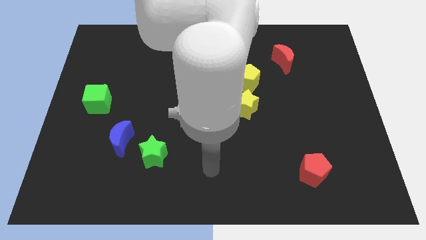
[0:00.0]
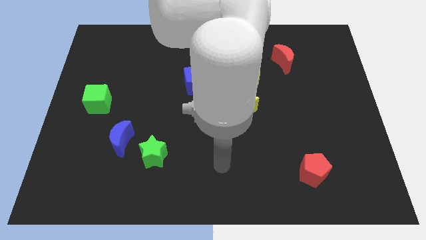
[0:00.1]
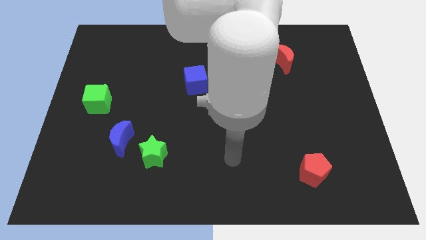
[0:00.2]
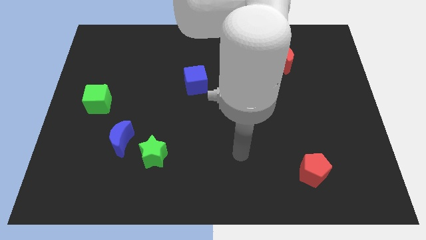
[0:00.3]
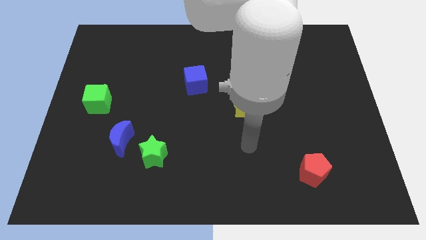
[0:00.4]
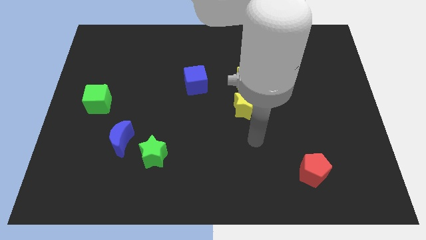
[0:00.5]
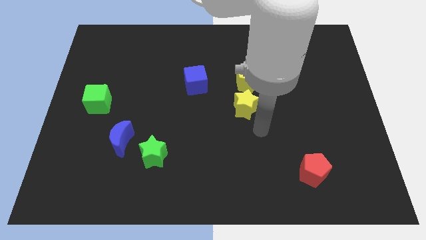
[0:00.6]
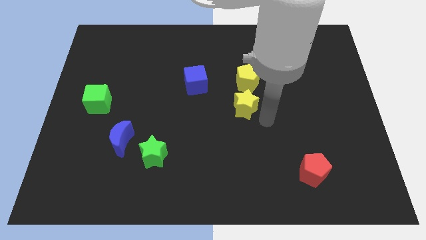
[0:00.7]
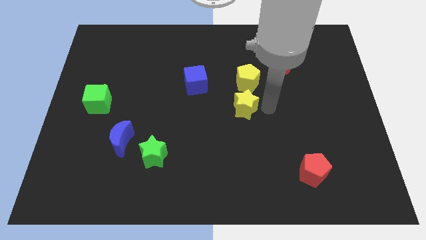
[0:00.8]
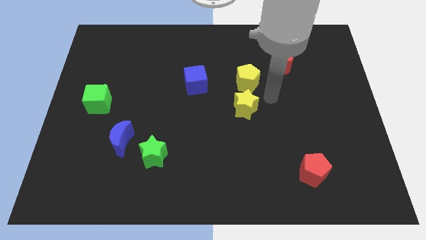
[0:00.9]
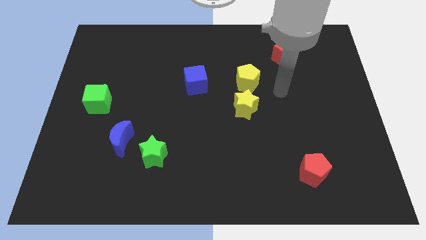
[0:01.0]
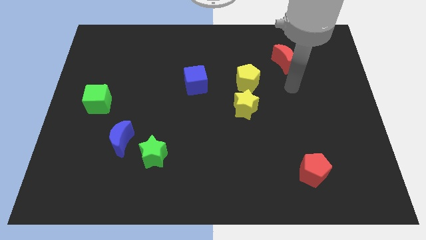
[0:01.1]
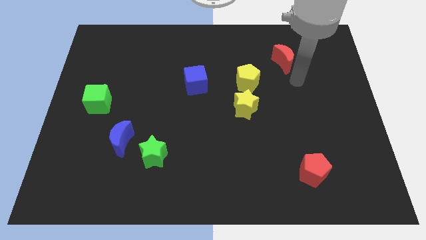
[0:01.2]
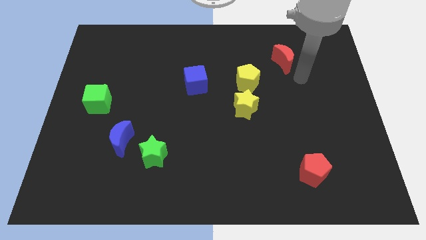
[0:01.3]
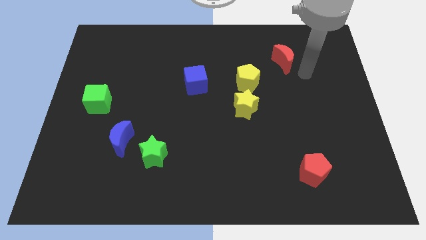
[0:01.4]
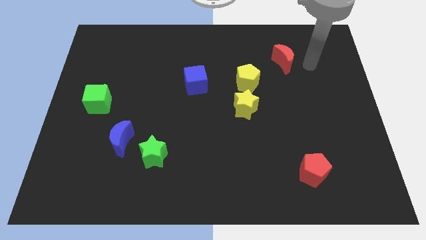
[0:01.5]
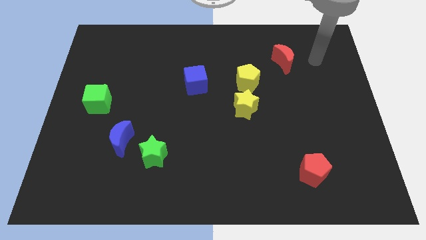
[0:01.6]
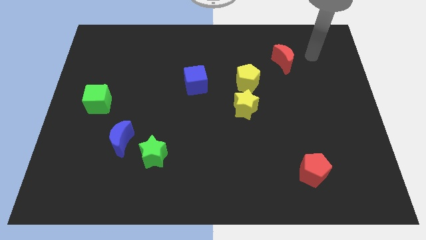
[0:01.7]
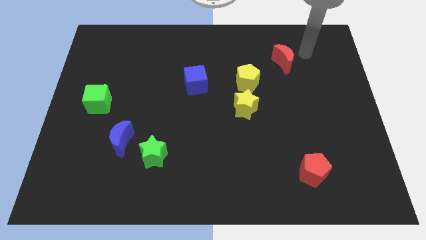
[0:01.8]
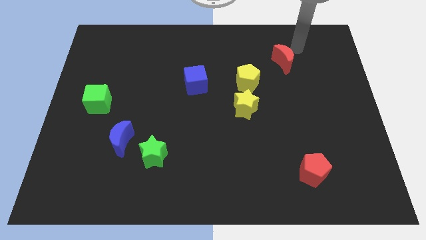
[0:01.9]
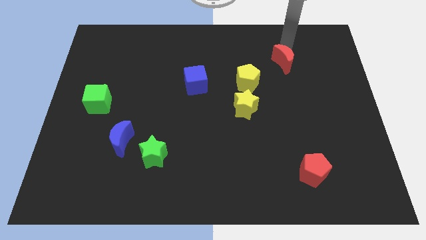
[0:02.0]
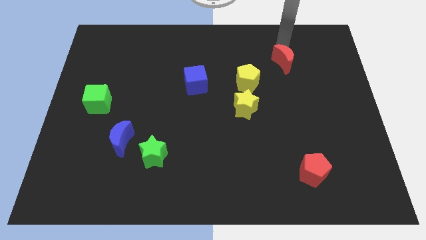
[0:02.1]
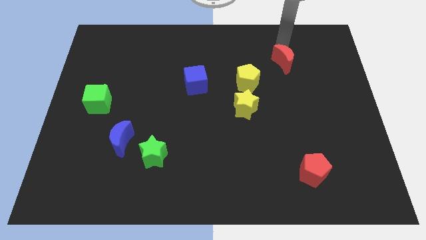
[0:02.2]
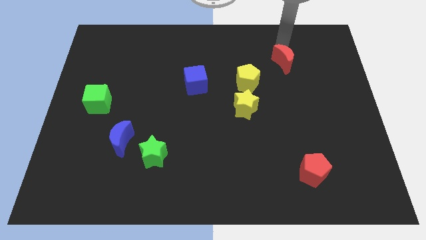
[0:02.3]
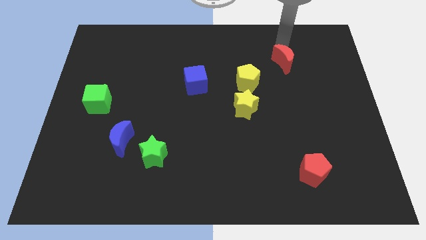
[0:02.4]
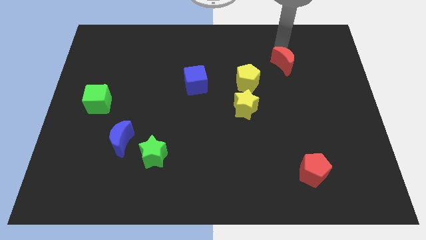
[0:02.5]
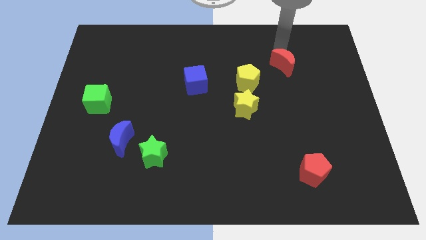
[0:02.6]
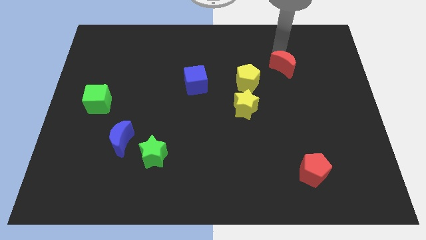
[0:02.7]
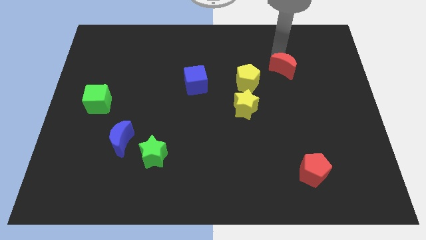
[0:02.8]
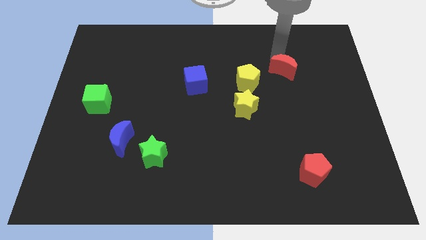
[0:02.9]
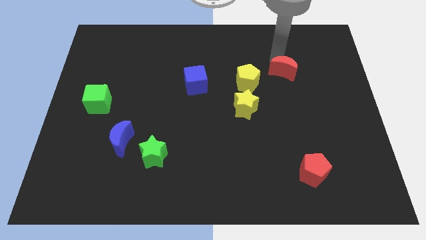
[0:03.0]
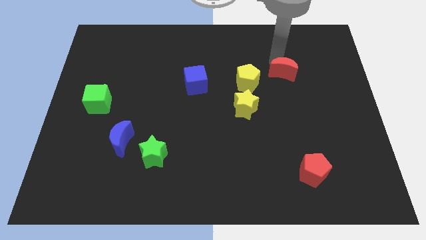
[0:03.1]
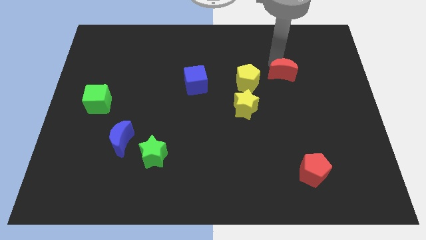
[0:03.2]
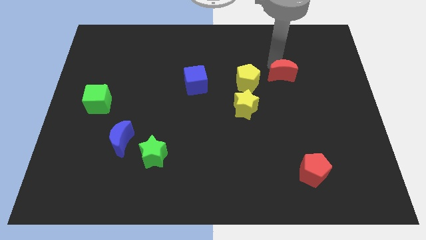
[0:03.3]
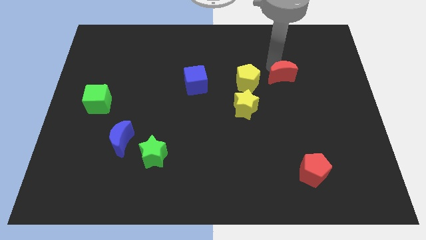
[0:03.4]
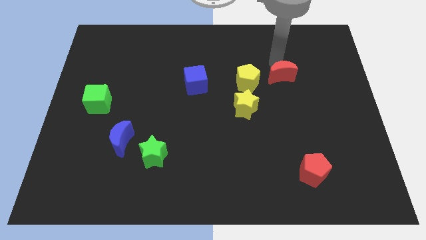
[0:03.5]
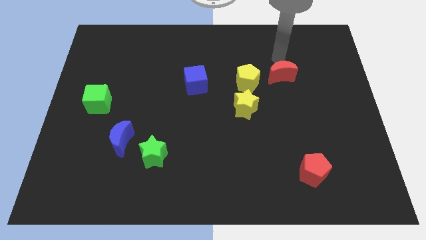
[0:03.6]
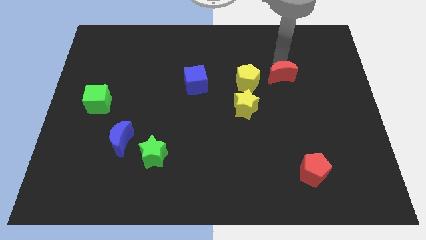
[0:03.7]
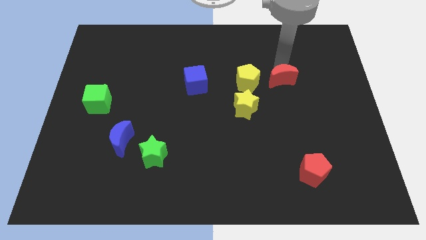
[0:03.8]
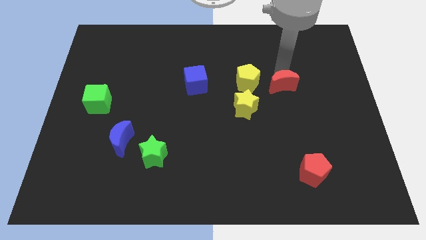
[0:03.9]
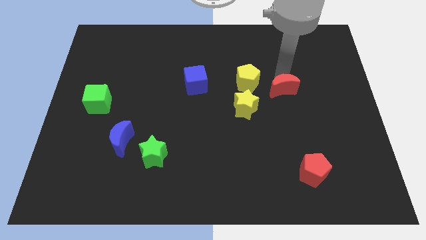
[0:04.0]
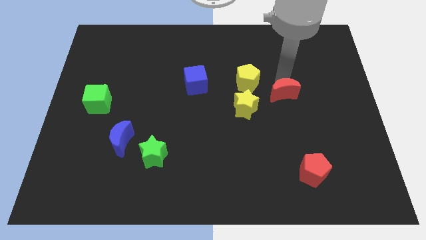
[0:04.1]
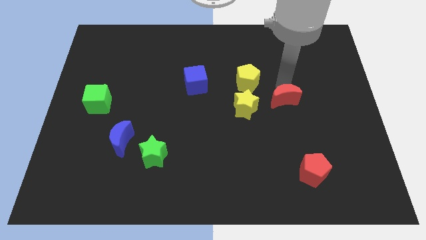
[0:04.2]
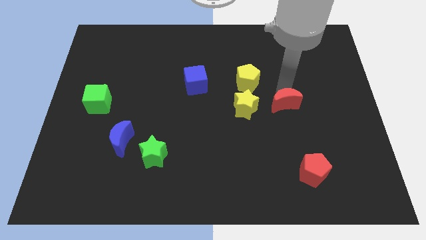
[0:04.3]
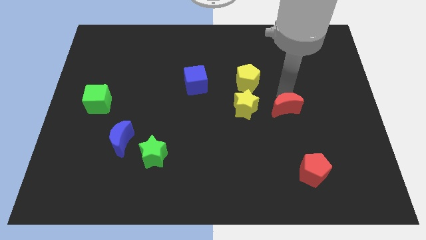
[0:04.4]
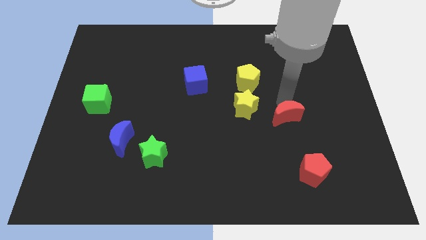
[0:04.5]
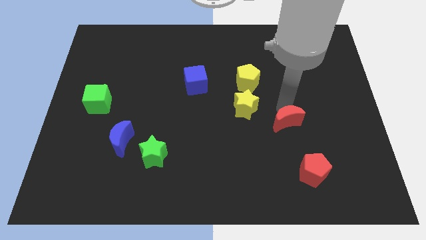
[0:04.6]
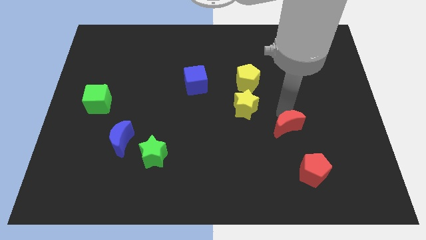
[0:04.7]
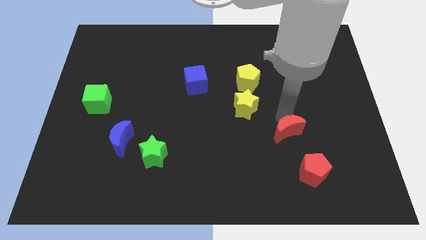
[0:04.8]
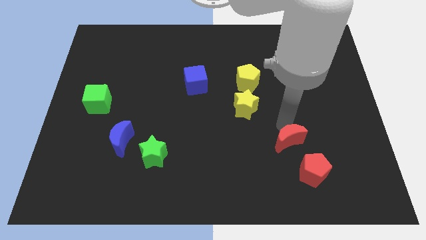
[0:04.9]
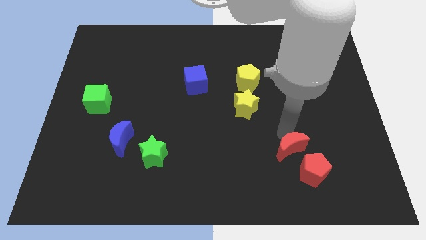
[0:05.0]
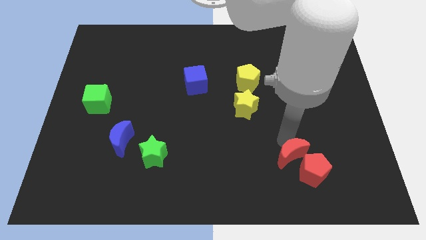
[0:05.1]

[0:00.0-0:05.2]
move the red moon towards the red pentagon

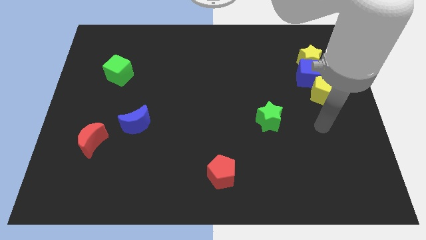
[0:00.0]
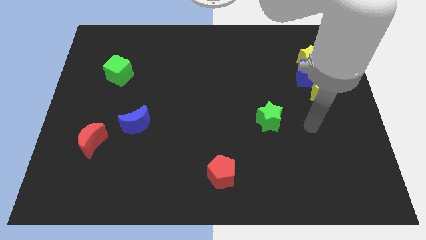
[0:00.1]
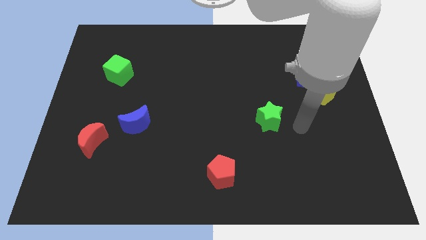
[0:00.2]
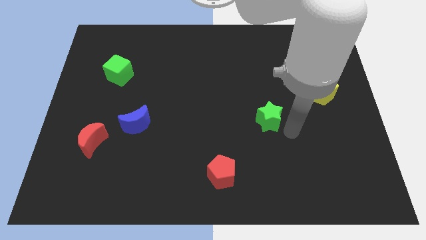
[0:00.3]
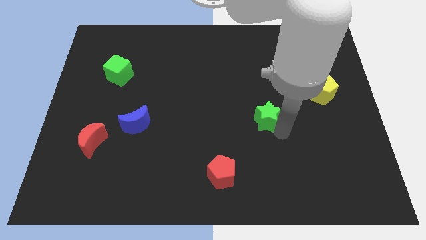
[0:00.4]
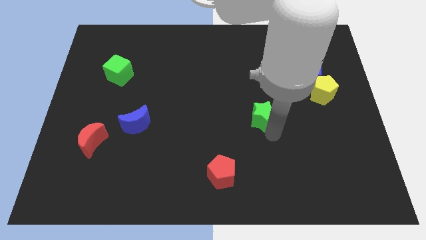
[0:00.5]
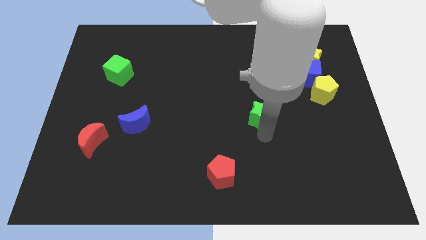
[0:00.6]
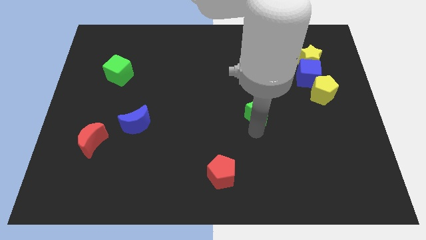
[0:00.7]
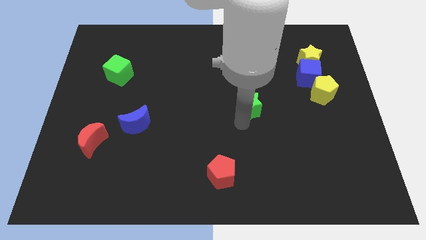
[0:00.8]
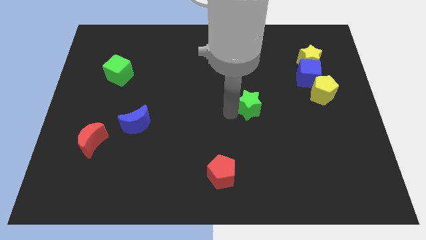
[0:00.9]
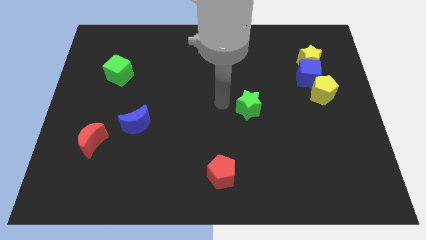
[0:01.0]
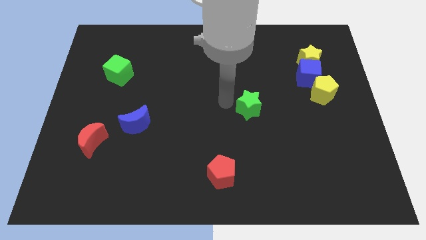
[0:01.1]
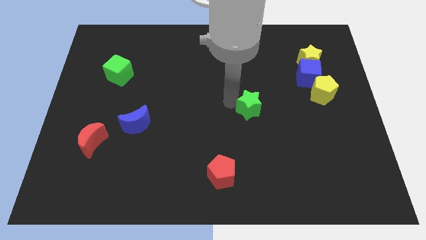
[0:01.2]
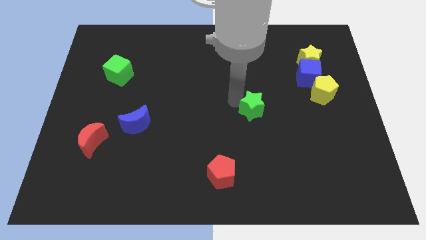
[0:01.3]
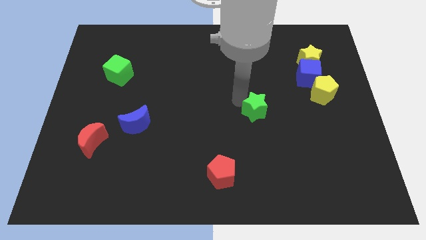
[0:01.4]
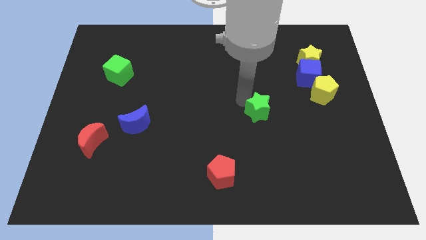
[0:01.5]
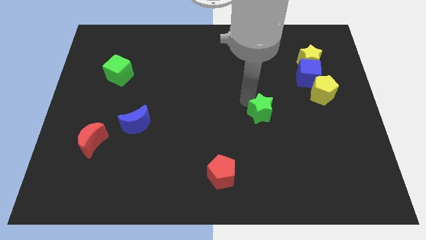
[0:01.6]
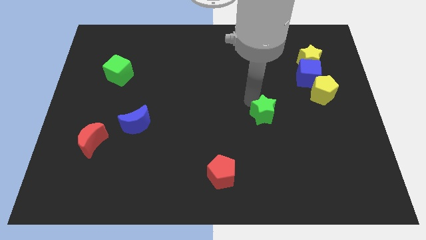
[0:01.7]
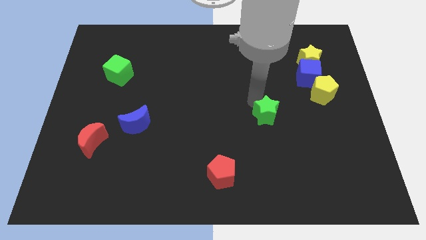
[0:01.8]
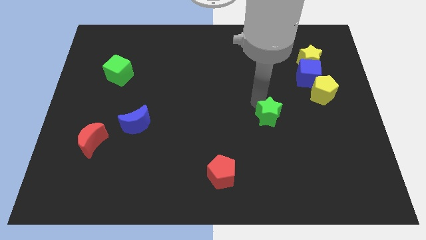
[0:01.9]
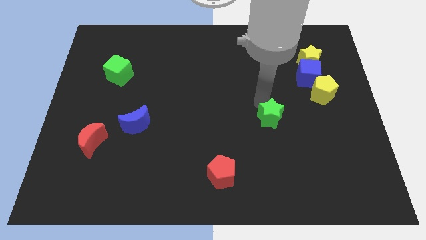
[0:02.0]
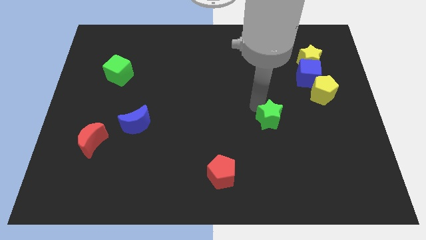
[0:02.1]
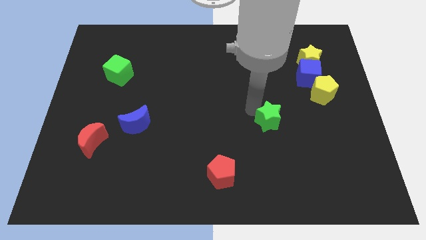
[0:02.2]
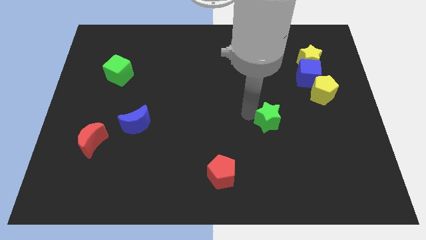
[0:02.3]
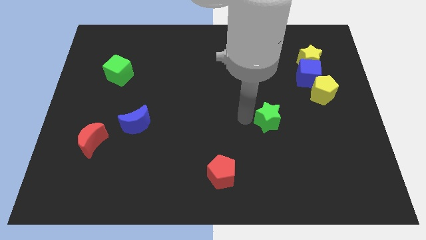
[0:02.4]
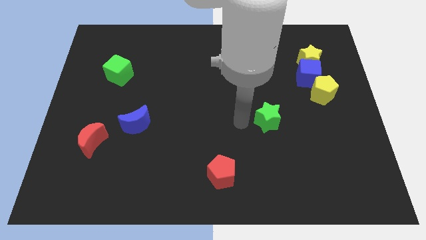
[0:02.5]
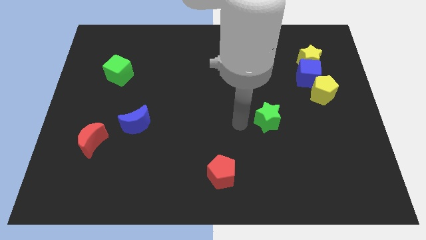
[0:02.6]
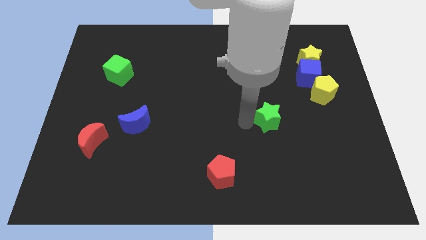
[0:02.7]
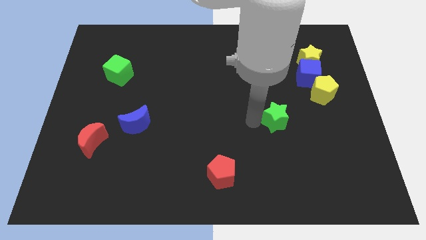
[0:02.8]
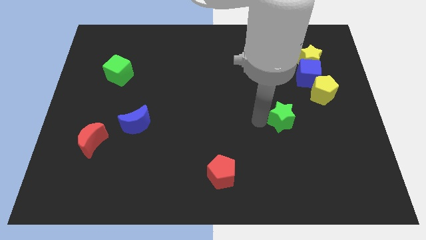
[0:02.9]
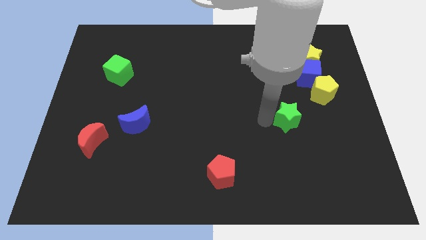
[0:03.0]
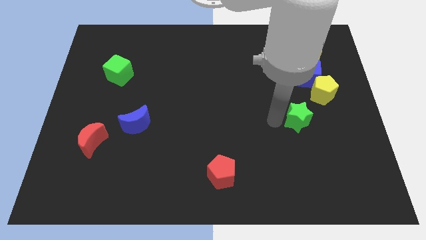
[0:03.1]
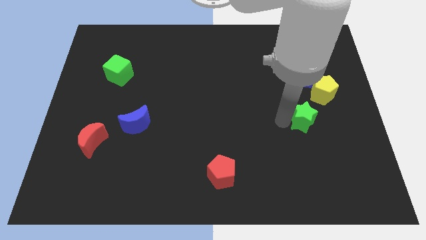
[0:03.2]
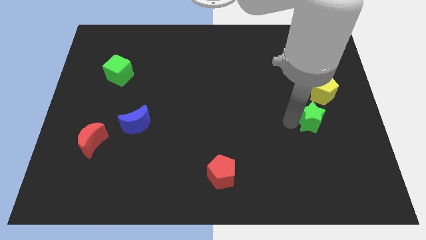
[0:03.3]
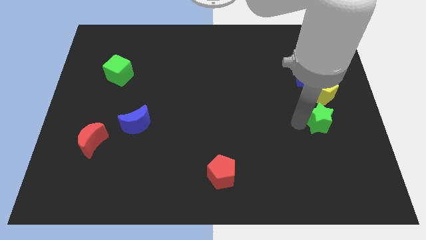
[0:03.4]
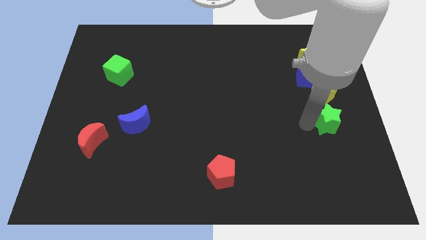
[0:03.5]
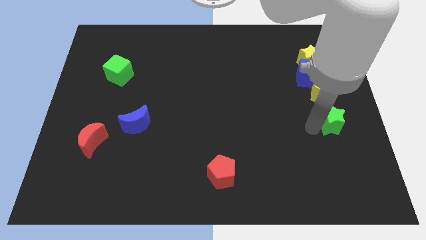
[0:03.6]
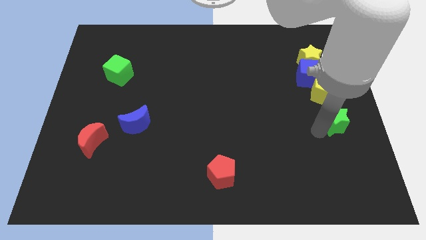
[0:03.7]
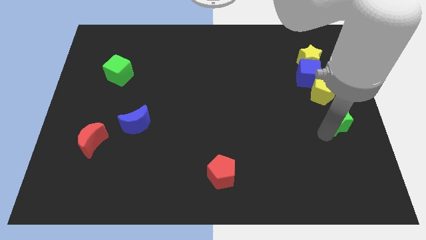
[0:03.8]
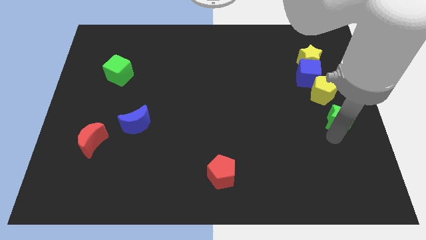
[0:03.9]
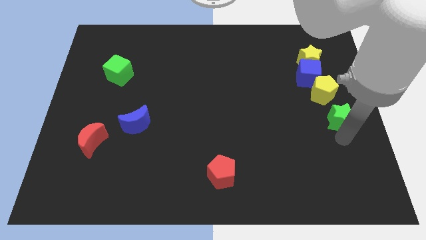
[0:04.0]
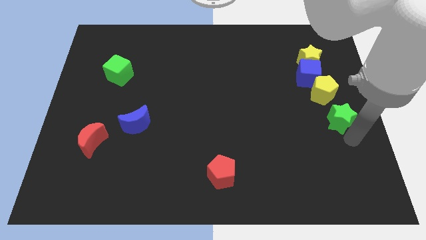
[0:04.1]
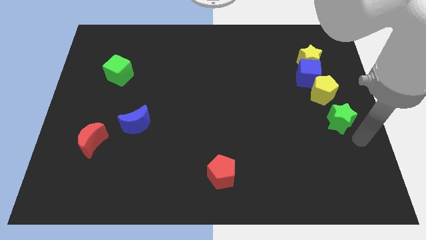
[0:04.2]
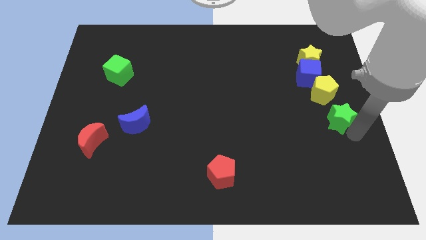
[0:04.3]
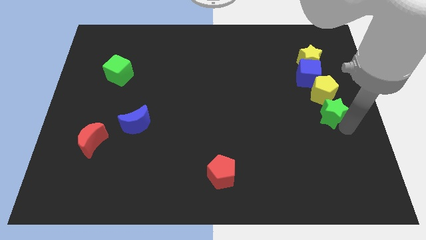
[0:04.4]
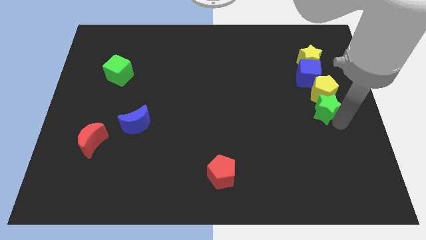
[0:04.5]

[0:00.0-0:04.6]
push the green star close to the yellow pentagon
